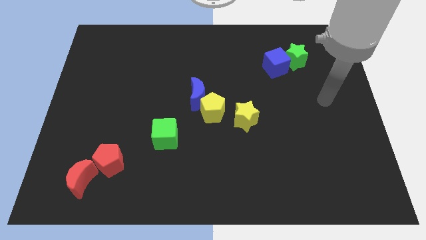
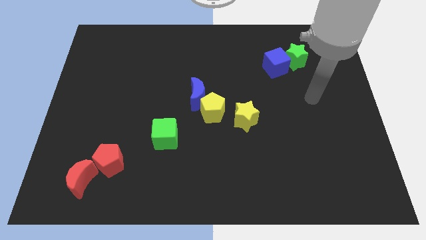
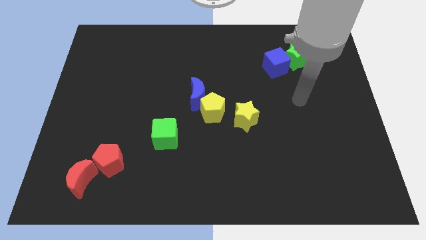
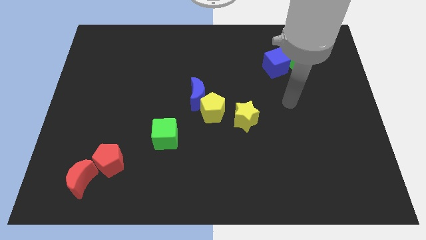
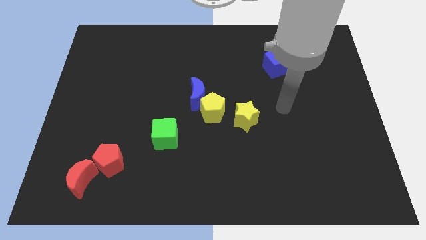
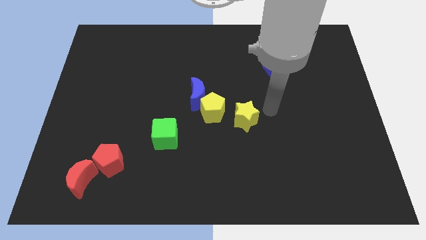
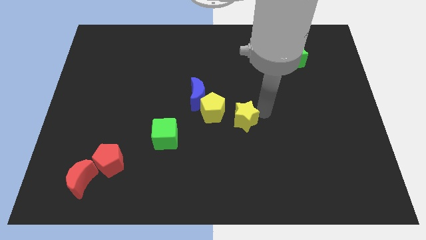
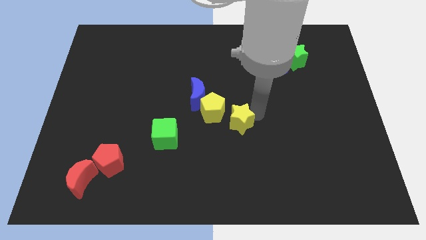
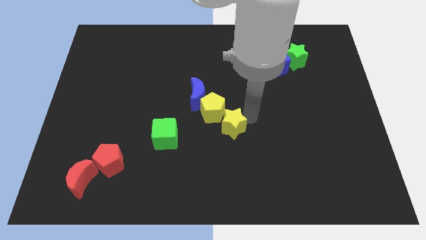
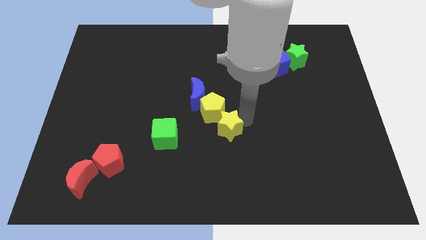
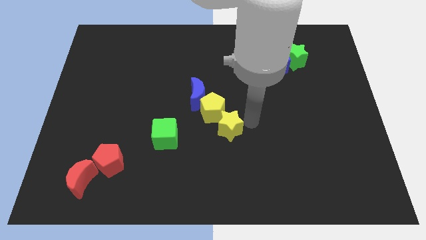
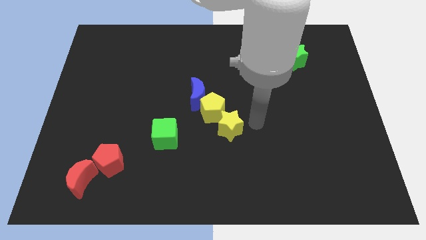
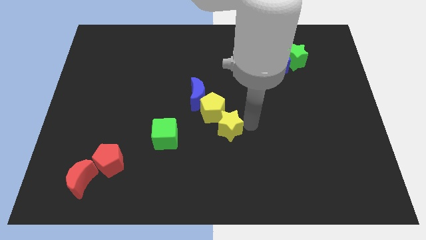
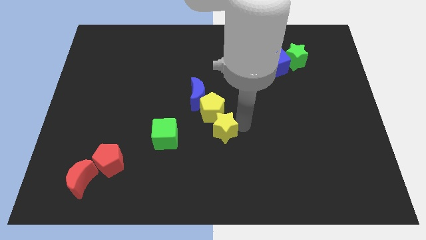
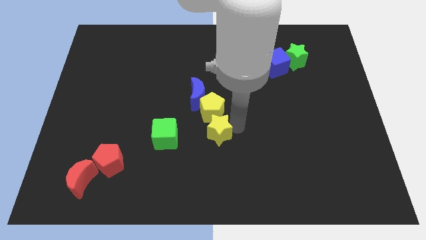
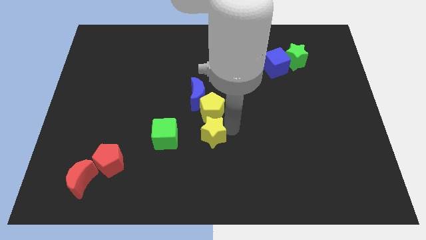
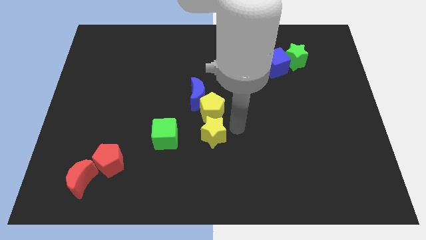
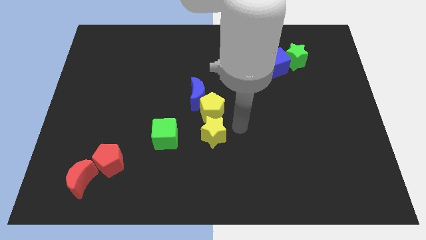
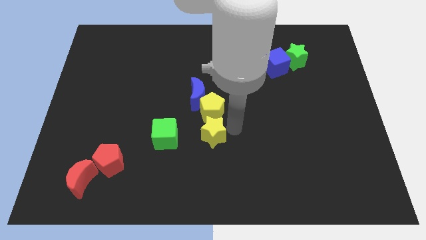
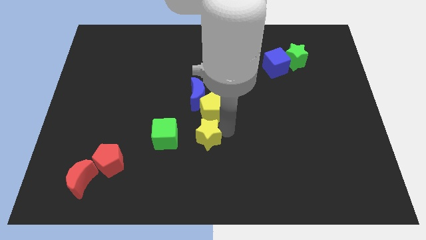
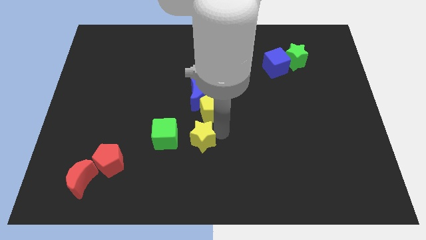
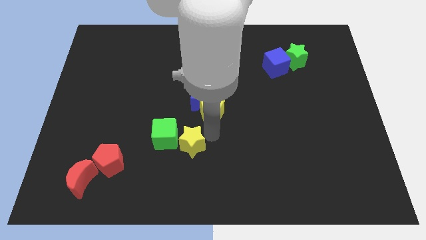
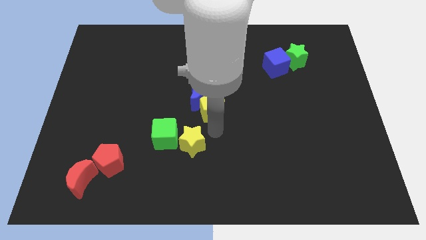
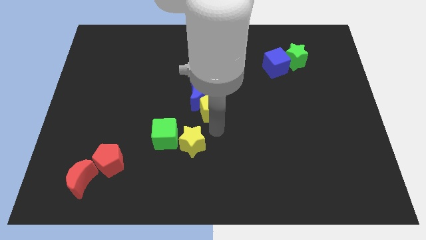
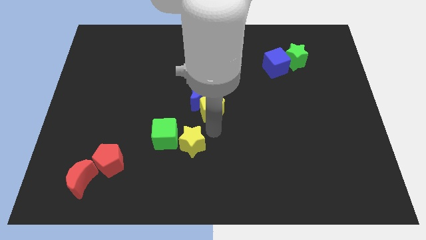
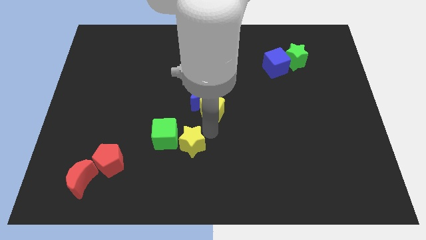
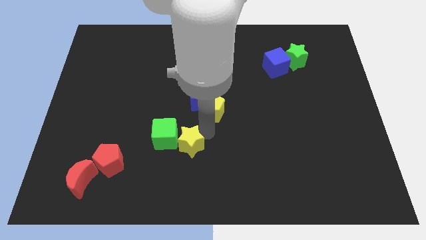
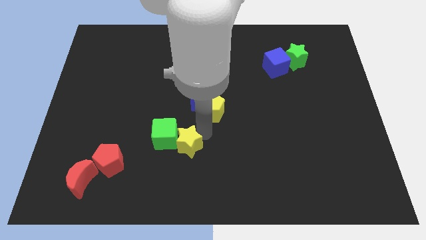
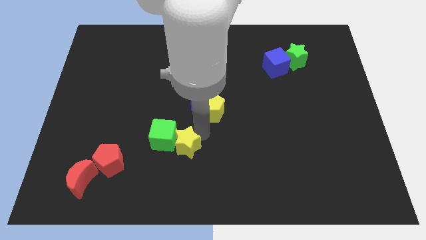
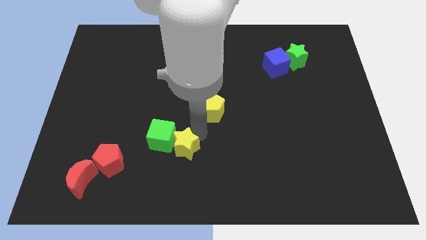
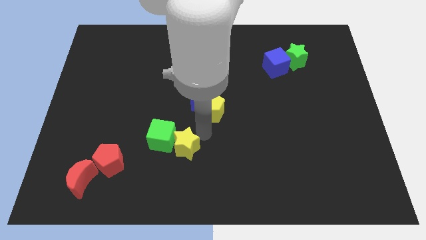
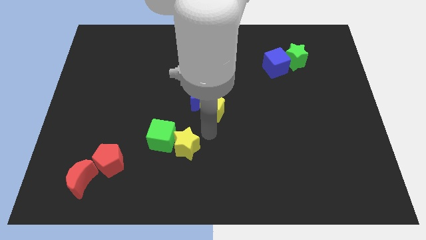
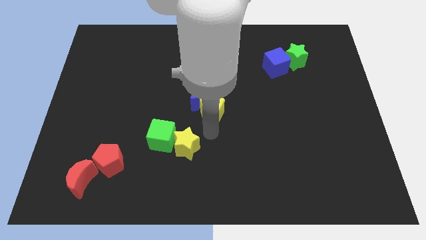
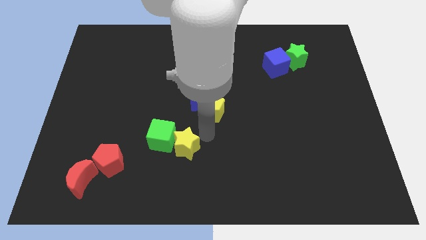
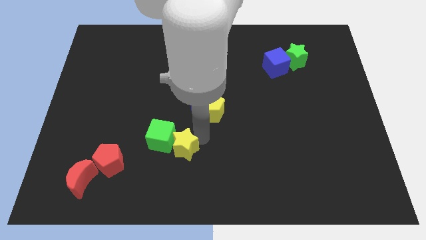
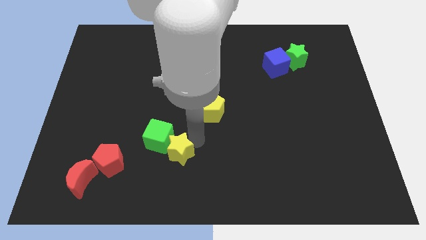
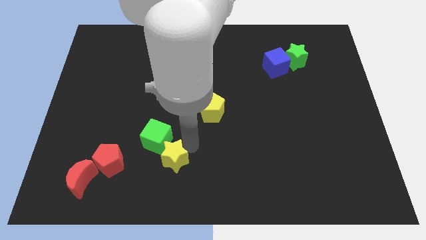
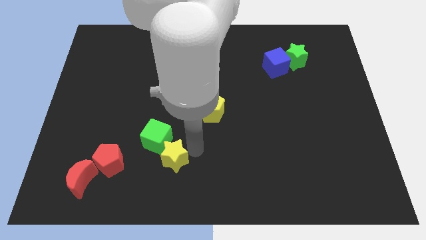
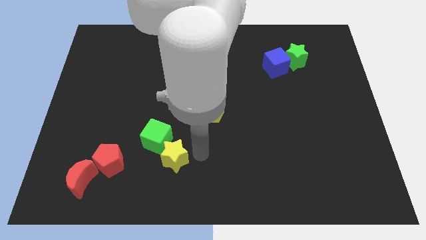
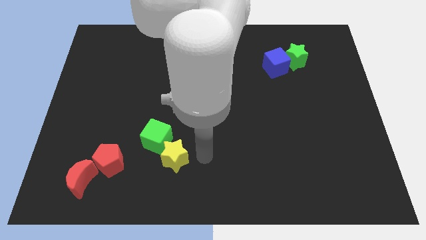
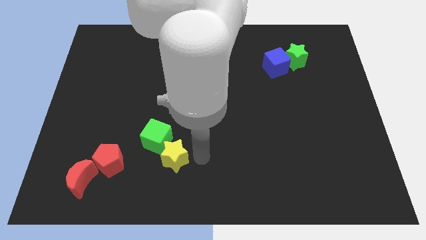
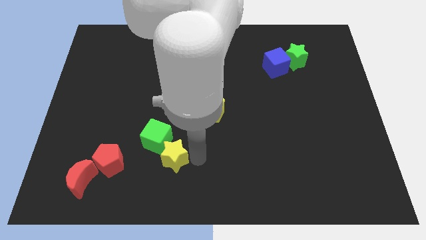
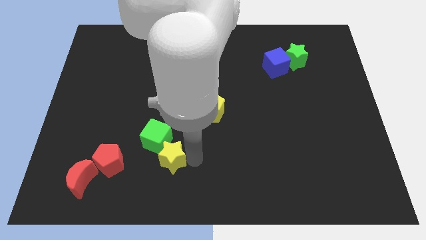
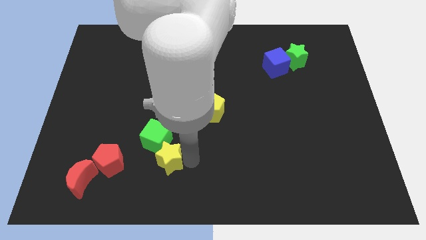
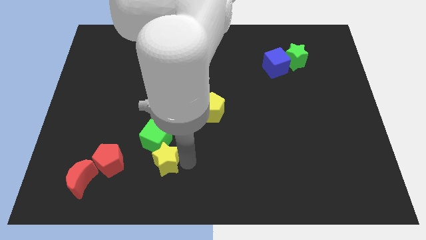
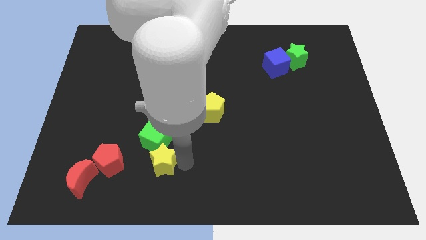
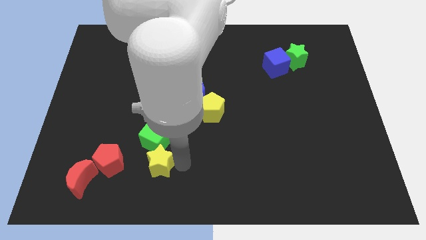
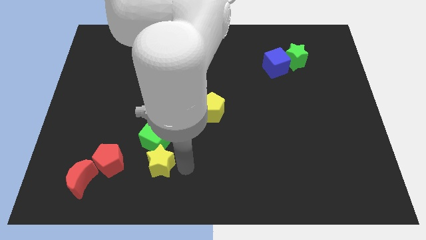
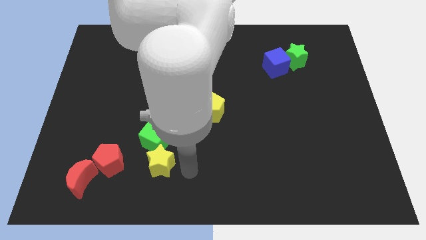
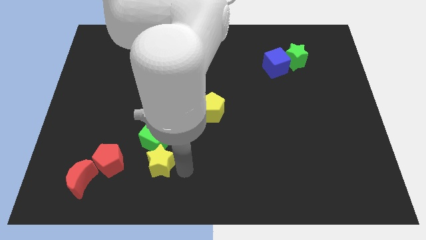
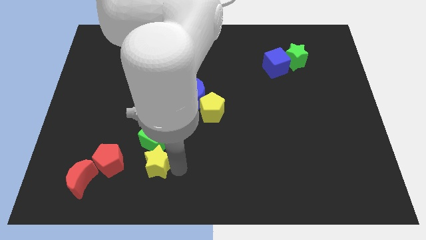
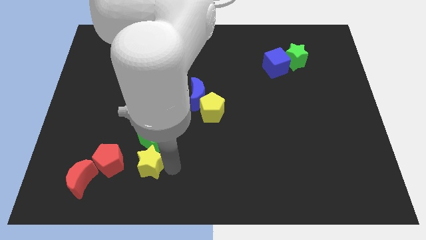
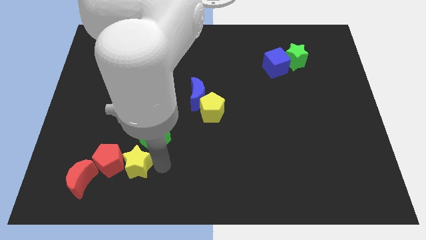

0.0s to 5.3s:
move the yellow star towards the red pentagon

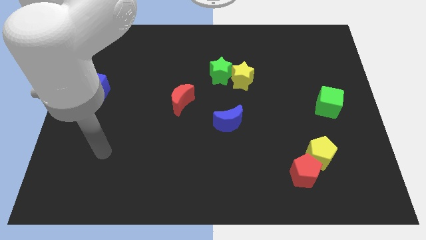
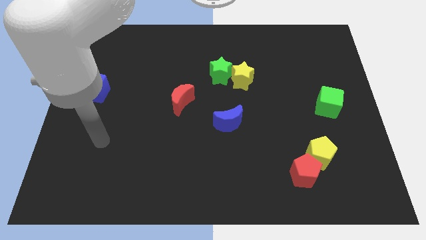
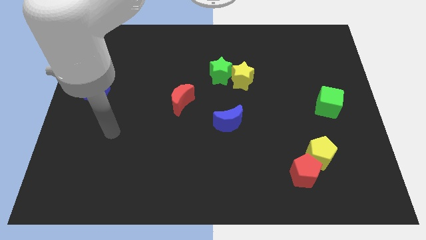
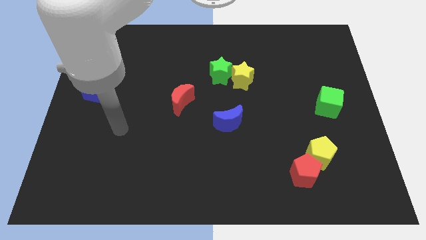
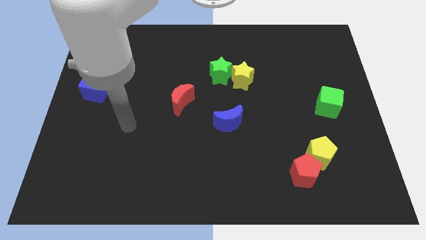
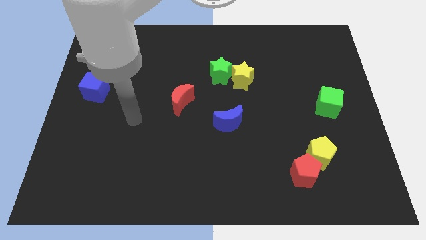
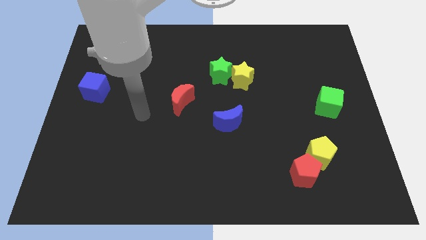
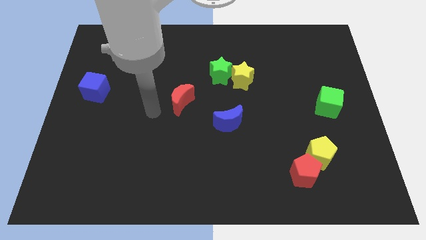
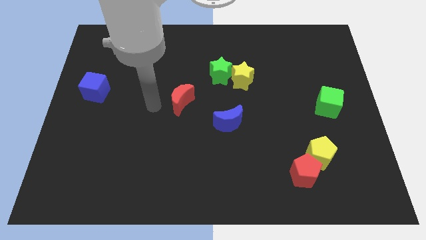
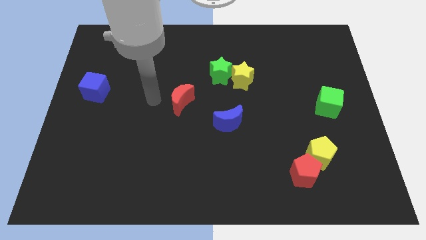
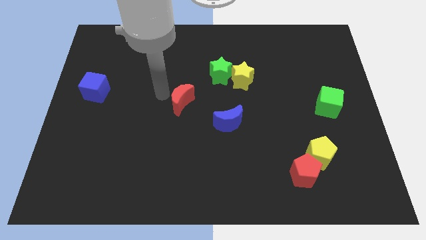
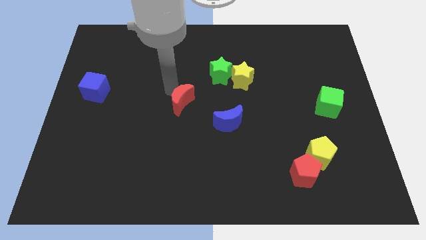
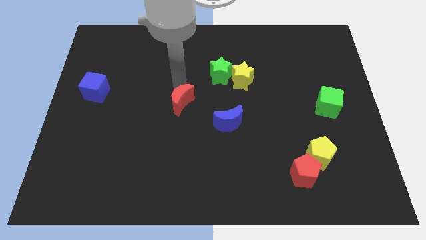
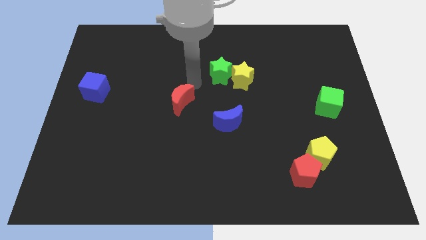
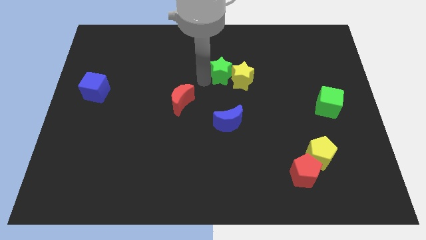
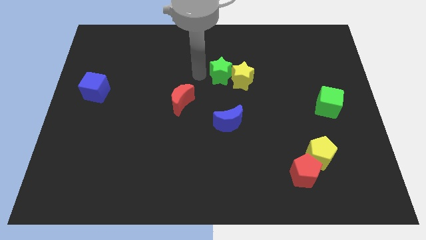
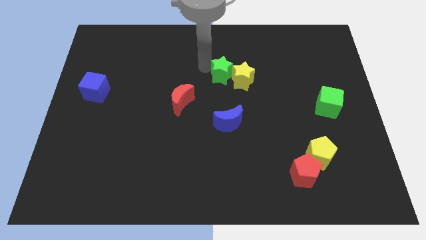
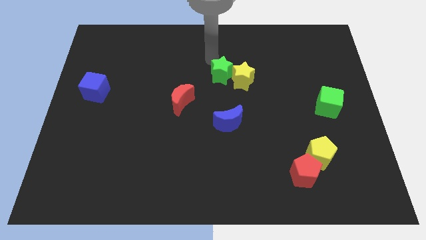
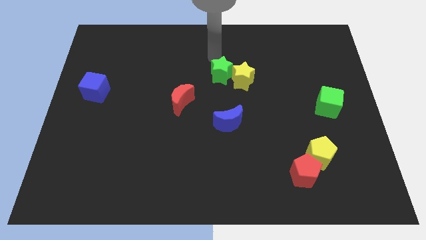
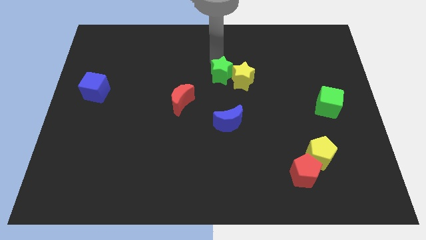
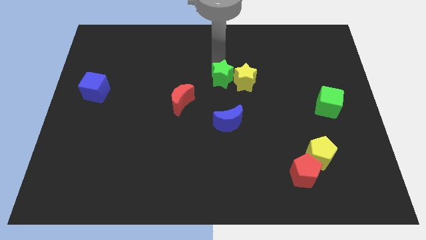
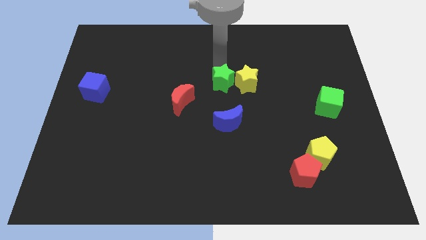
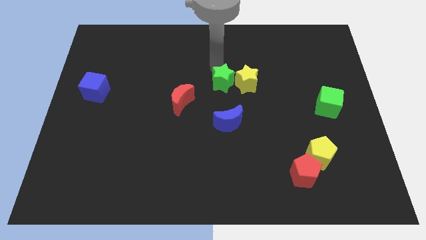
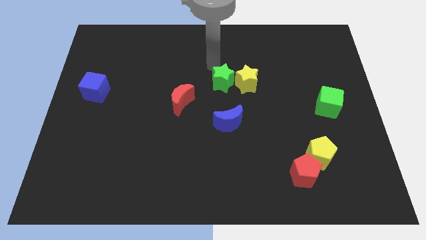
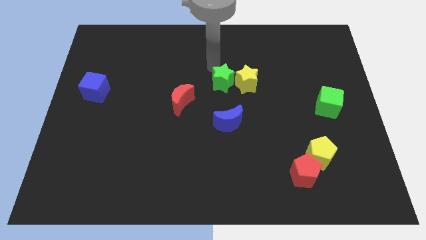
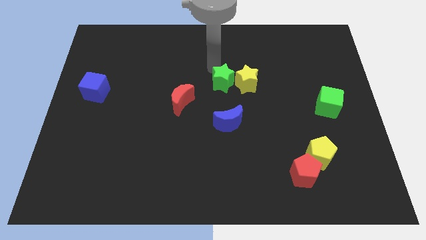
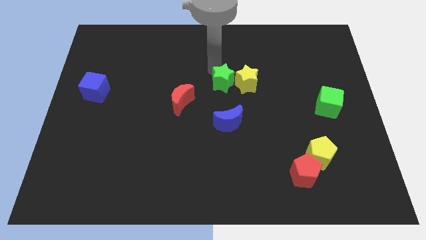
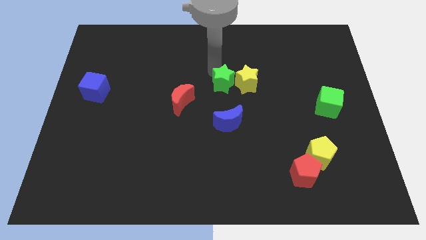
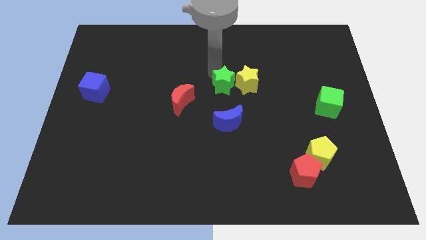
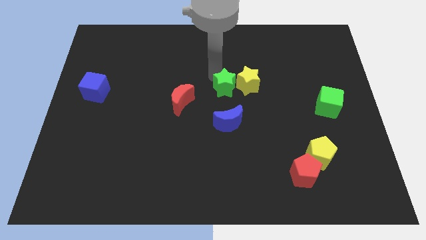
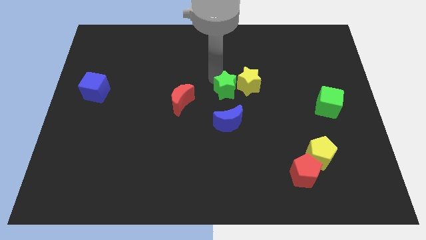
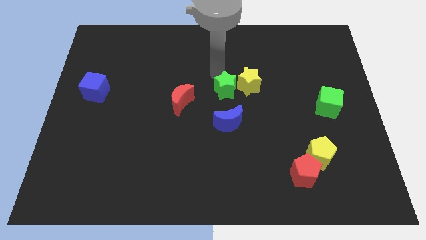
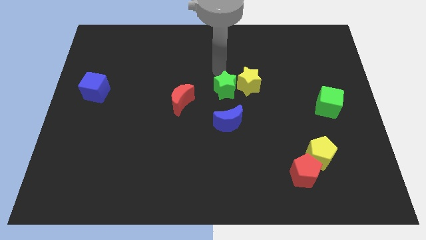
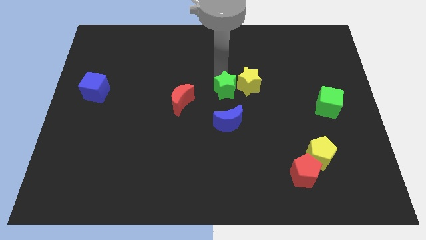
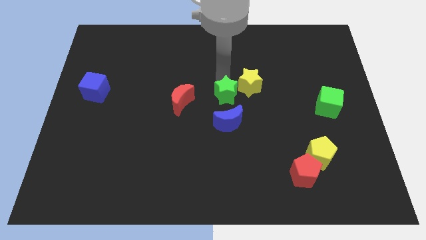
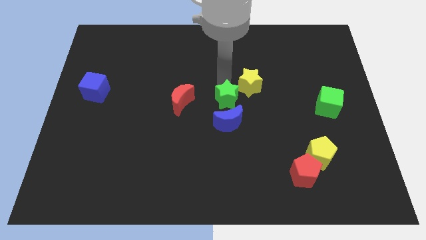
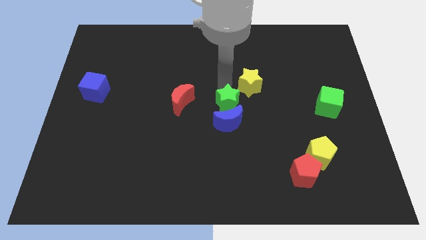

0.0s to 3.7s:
put the green star to the blue moon
